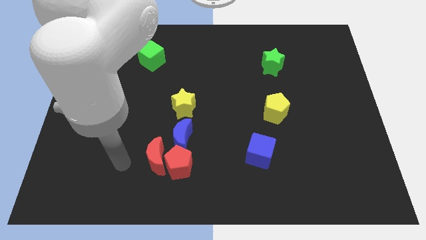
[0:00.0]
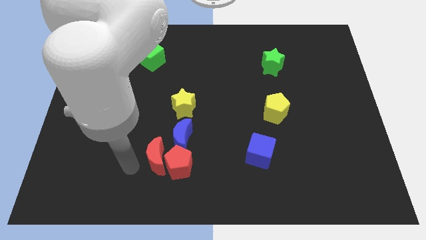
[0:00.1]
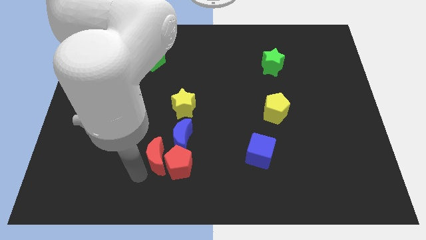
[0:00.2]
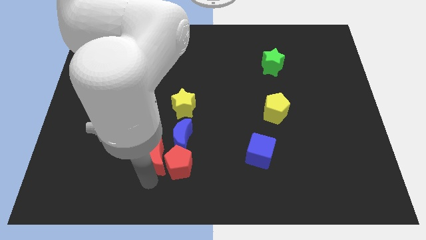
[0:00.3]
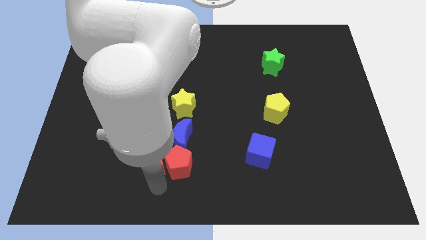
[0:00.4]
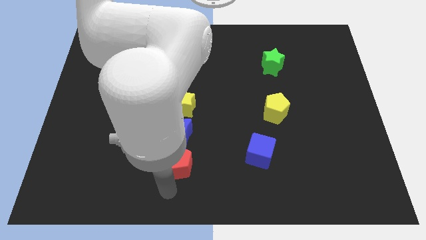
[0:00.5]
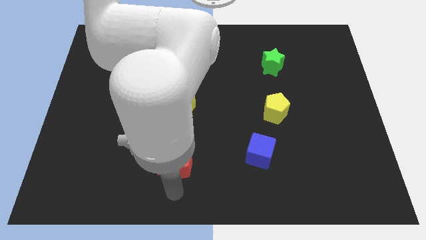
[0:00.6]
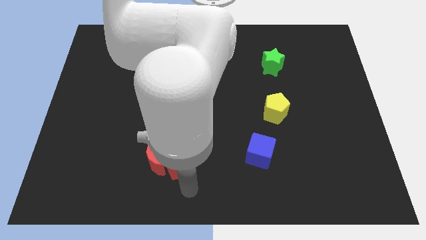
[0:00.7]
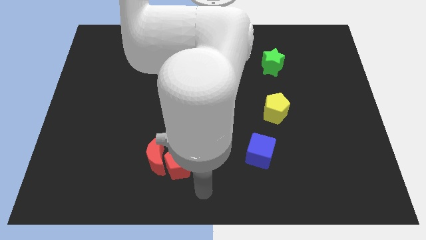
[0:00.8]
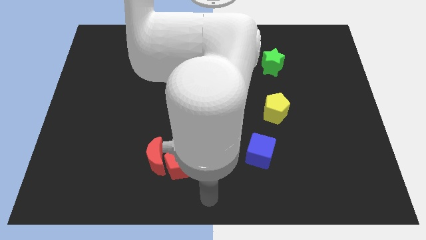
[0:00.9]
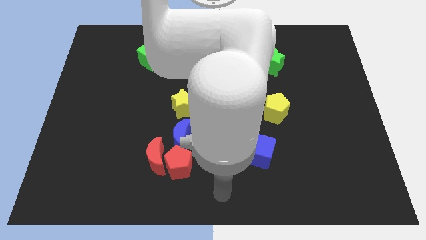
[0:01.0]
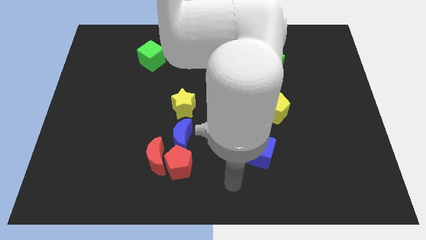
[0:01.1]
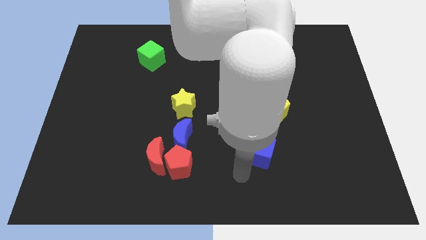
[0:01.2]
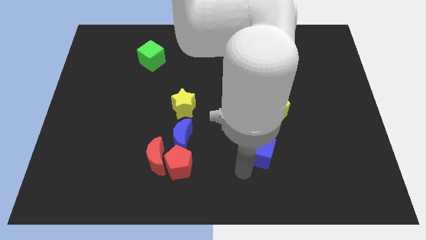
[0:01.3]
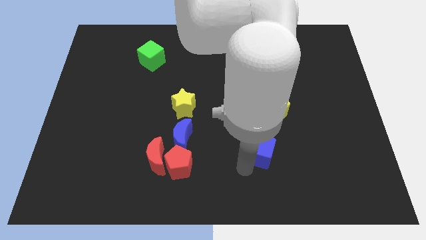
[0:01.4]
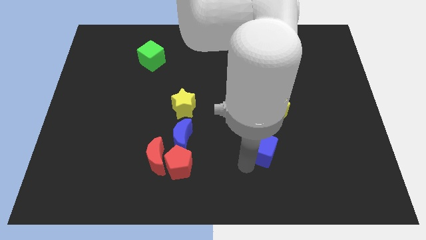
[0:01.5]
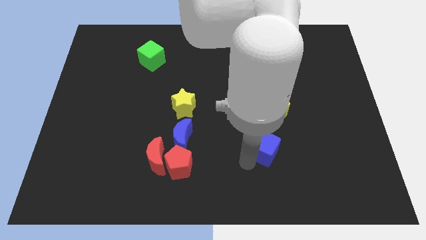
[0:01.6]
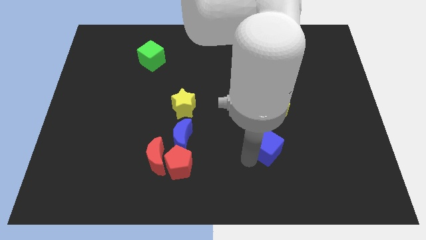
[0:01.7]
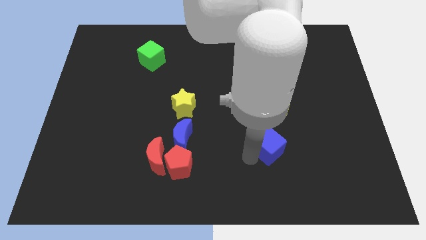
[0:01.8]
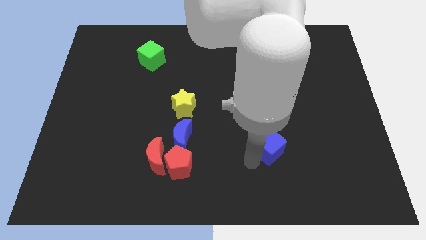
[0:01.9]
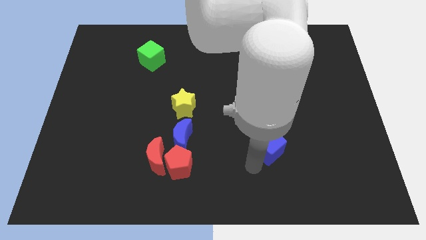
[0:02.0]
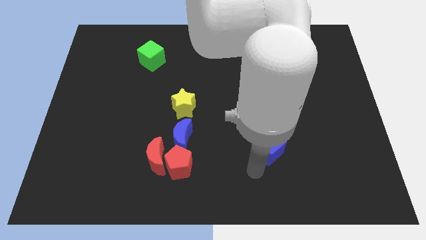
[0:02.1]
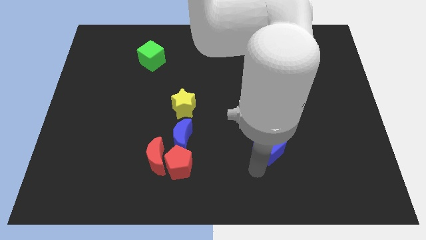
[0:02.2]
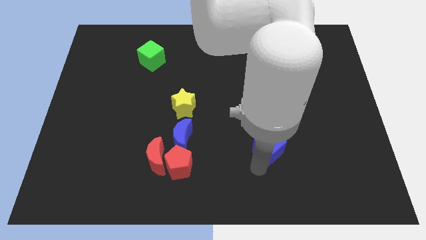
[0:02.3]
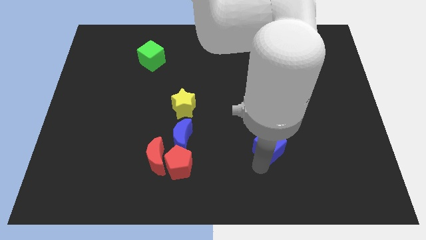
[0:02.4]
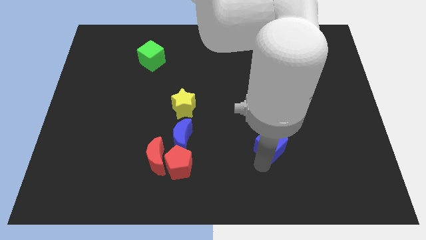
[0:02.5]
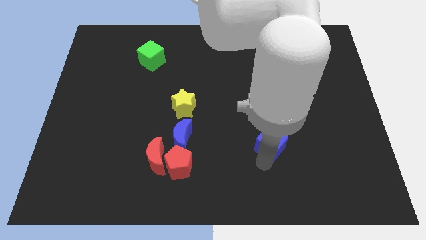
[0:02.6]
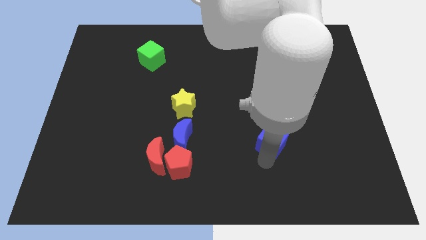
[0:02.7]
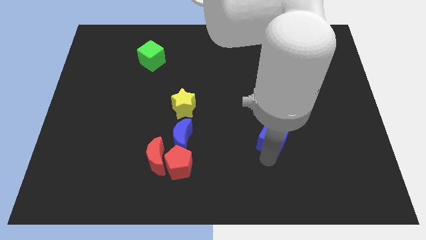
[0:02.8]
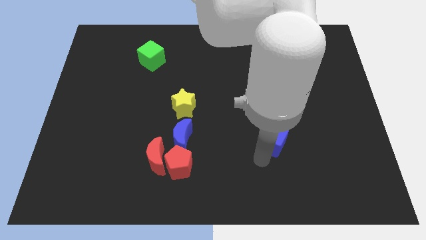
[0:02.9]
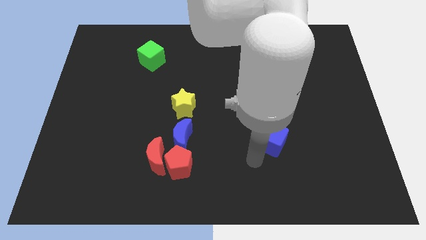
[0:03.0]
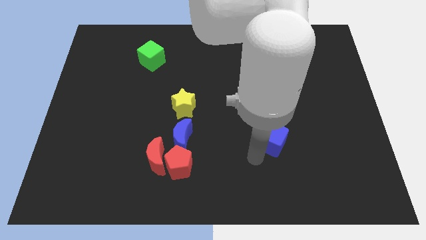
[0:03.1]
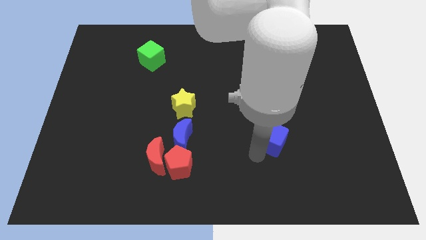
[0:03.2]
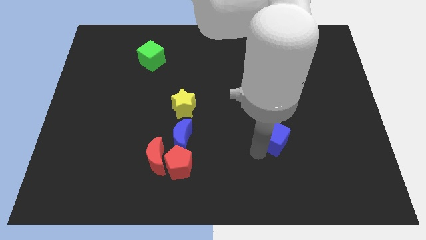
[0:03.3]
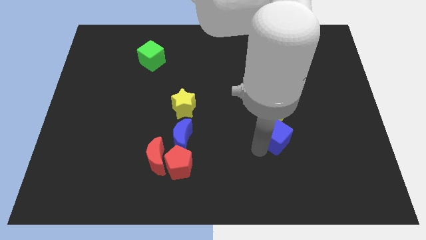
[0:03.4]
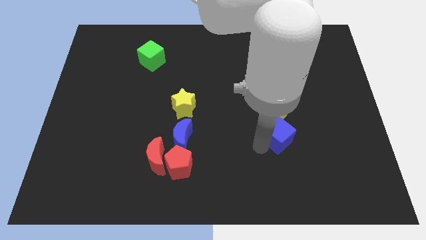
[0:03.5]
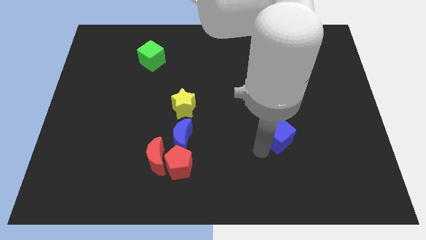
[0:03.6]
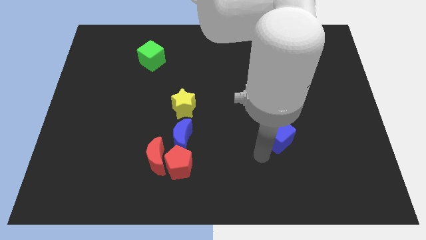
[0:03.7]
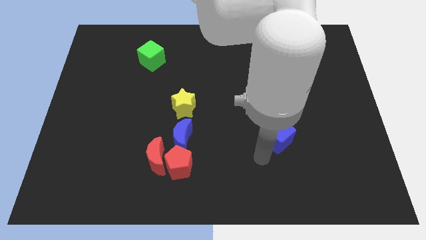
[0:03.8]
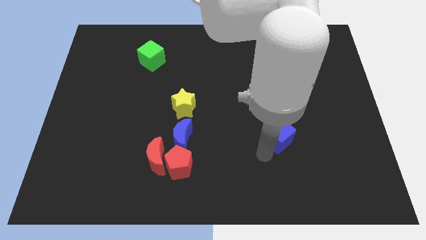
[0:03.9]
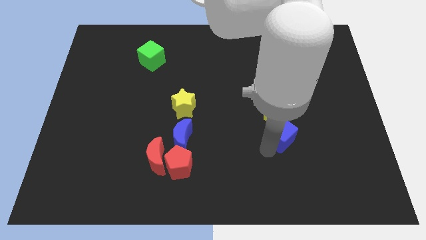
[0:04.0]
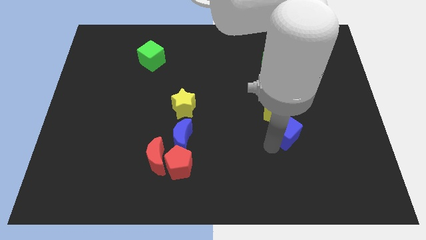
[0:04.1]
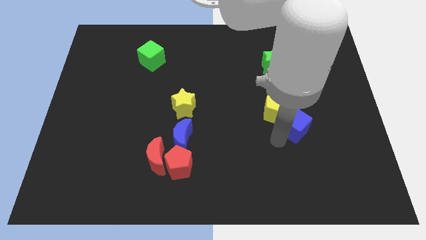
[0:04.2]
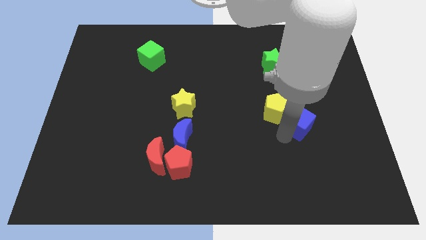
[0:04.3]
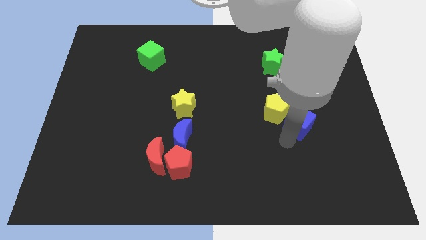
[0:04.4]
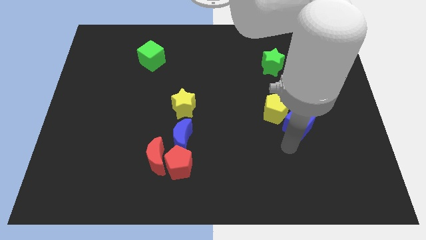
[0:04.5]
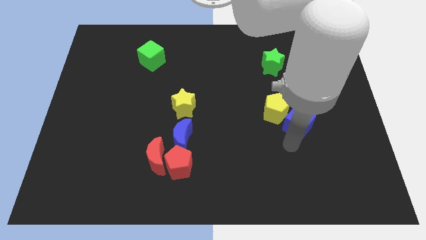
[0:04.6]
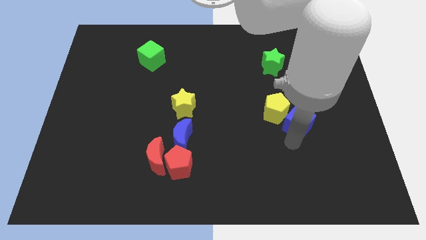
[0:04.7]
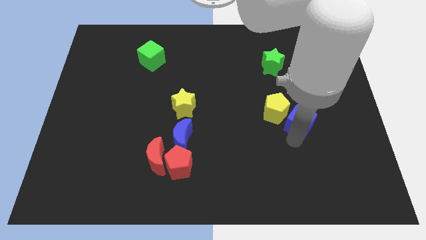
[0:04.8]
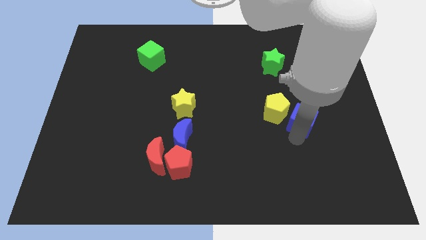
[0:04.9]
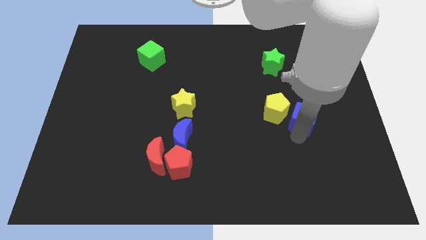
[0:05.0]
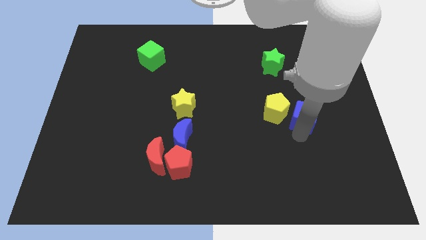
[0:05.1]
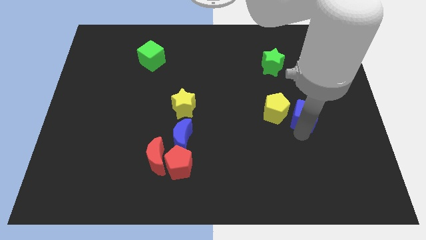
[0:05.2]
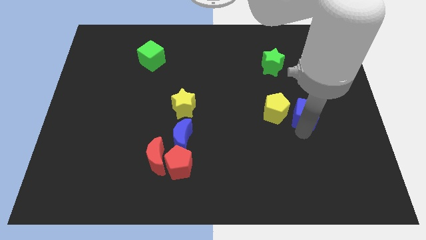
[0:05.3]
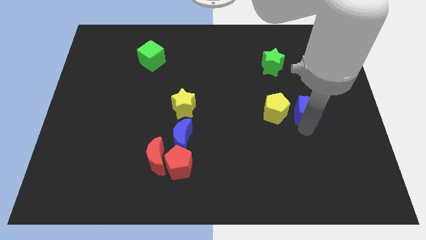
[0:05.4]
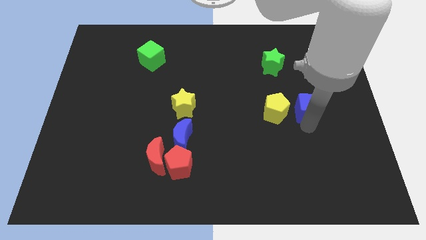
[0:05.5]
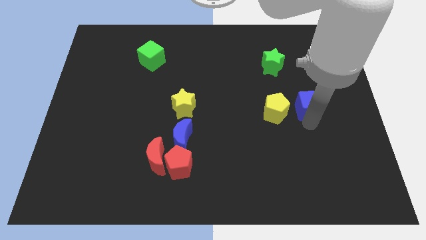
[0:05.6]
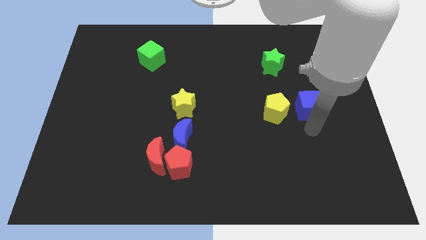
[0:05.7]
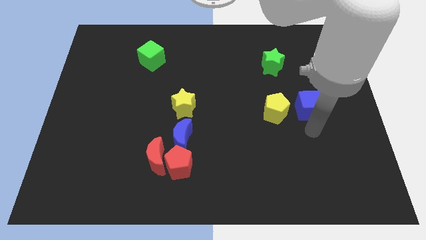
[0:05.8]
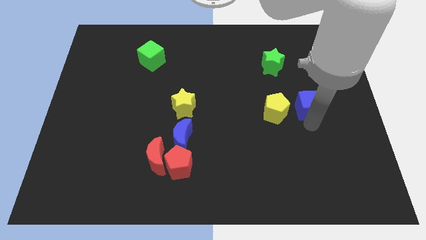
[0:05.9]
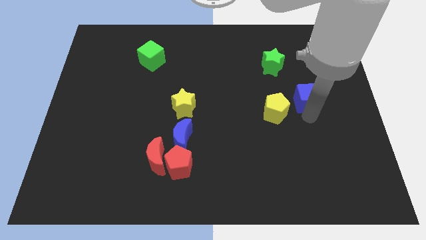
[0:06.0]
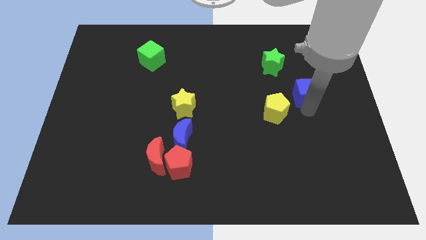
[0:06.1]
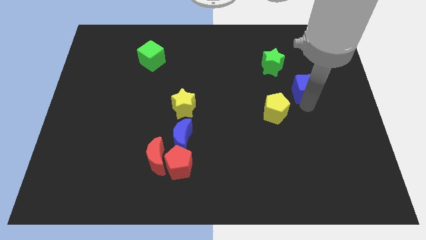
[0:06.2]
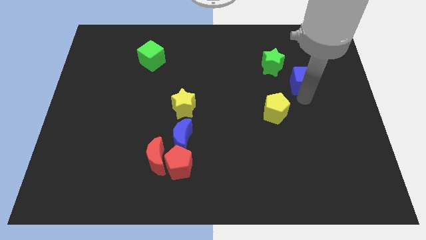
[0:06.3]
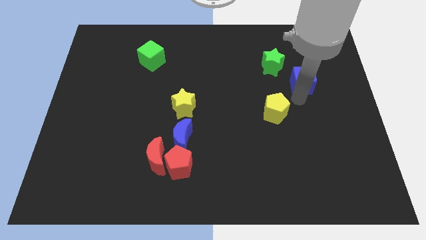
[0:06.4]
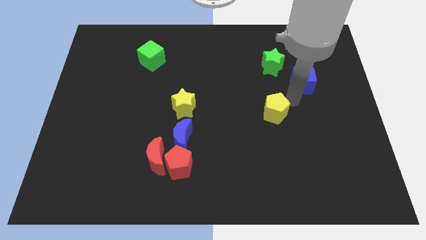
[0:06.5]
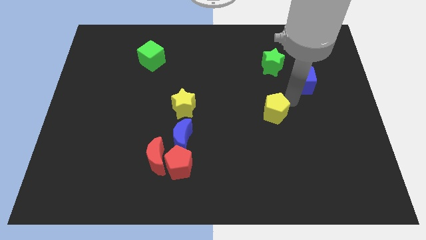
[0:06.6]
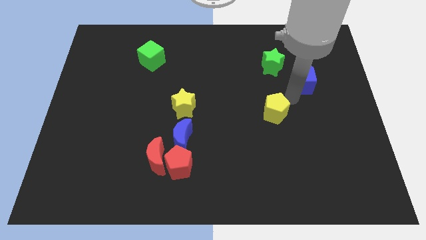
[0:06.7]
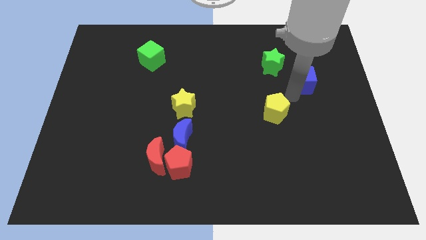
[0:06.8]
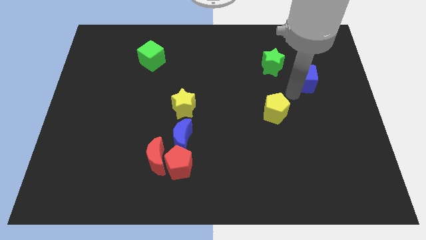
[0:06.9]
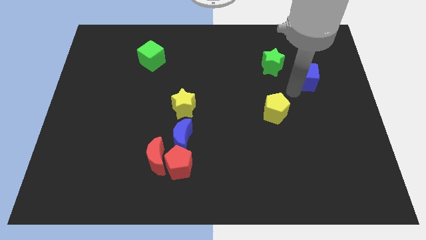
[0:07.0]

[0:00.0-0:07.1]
slide the blue cube to the right side of the green star
